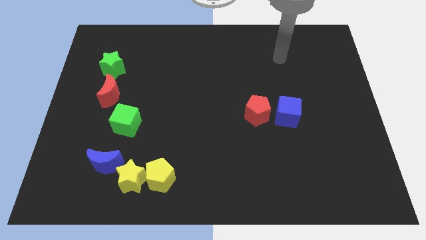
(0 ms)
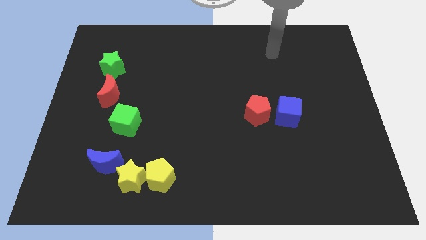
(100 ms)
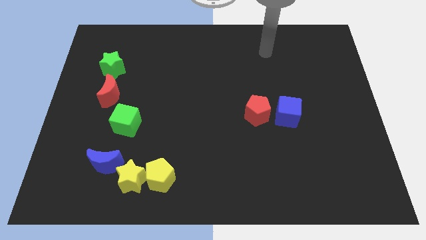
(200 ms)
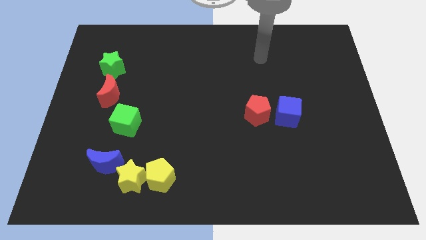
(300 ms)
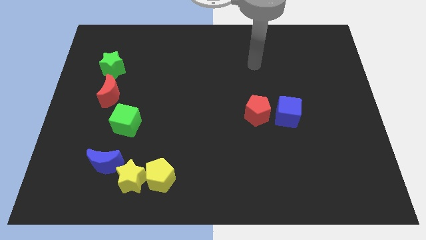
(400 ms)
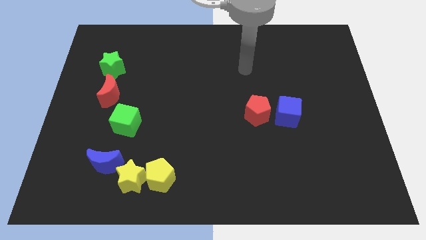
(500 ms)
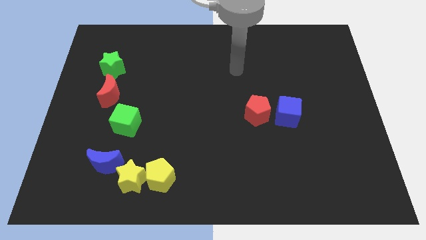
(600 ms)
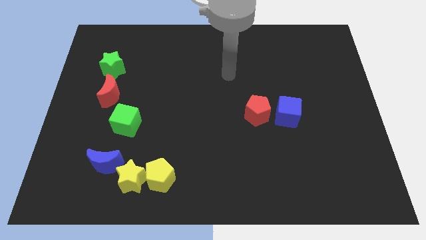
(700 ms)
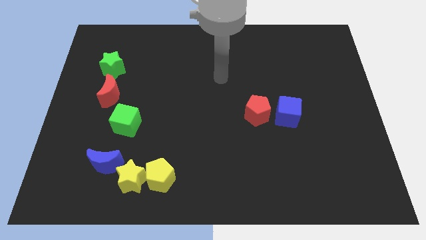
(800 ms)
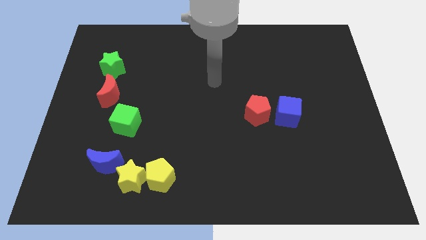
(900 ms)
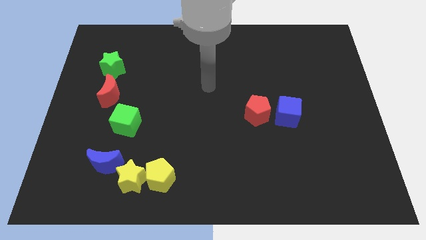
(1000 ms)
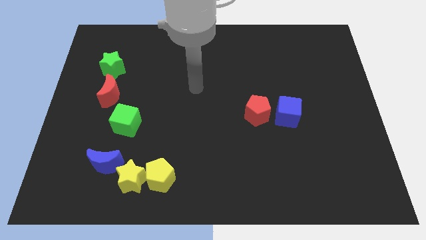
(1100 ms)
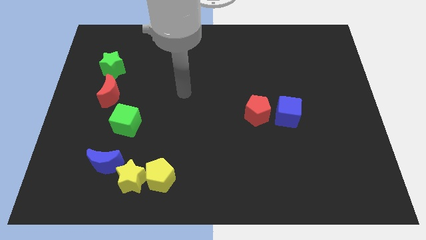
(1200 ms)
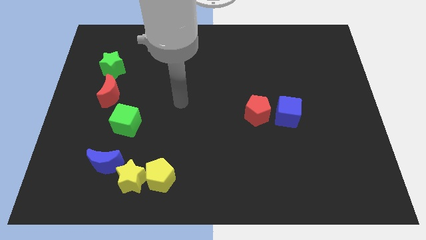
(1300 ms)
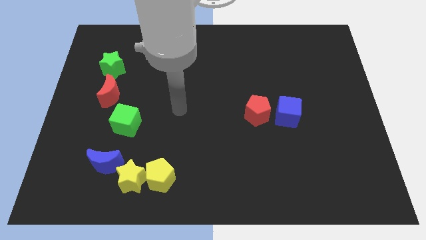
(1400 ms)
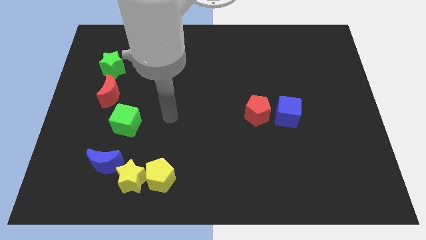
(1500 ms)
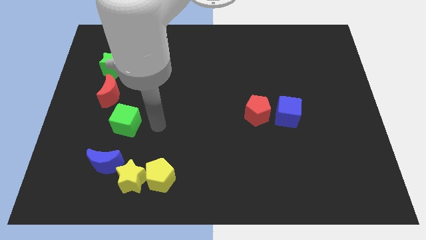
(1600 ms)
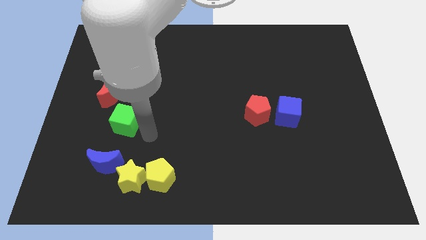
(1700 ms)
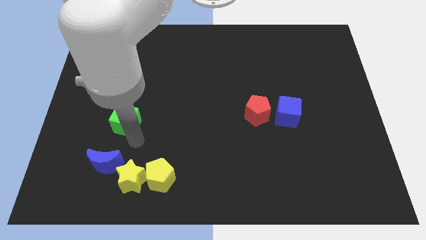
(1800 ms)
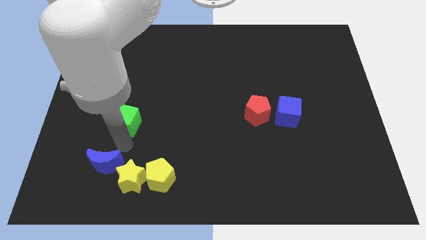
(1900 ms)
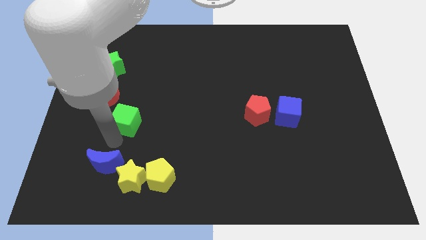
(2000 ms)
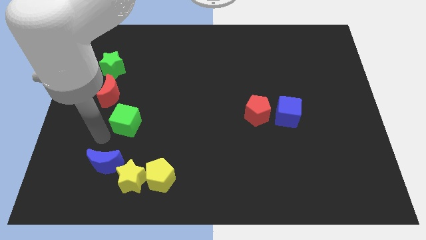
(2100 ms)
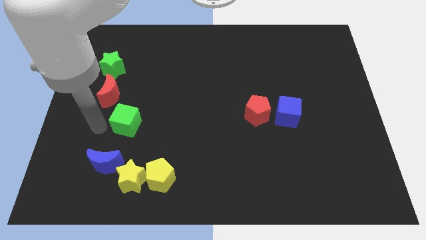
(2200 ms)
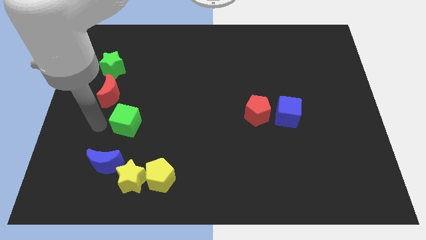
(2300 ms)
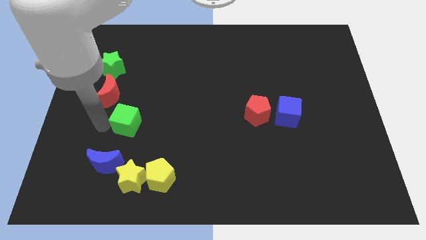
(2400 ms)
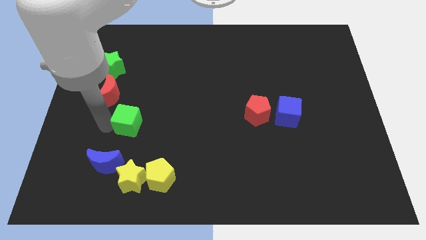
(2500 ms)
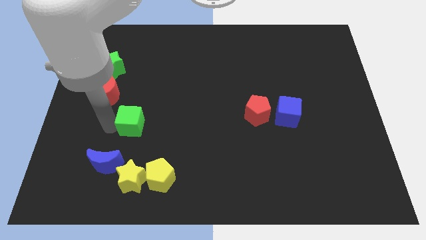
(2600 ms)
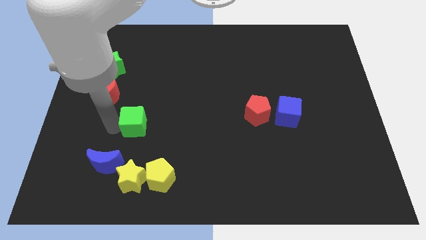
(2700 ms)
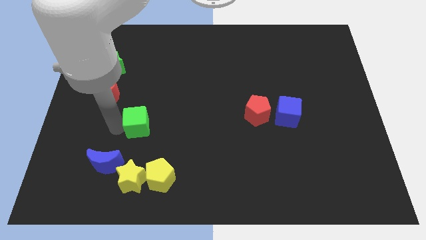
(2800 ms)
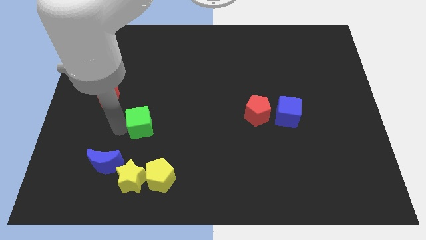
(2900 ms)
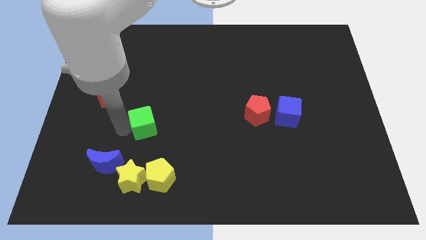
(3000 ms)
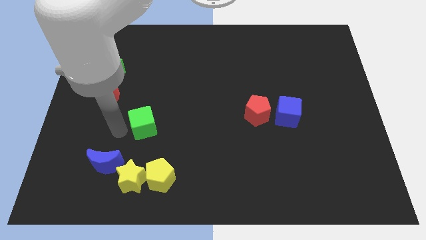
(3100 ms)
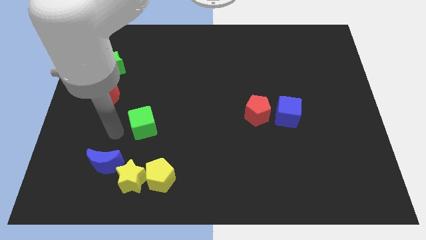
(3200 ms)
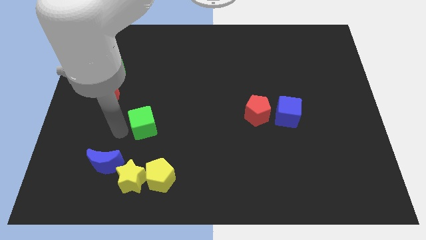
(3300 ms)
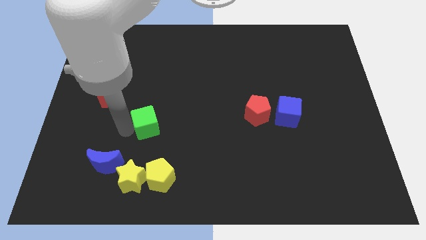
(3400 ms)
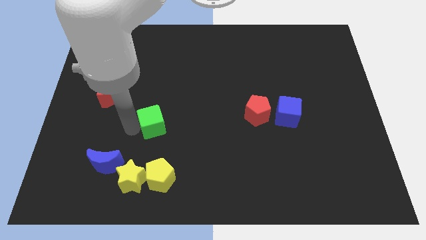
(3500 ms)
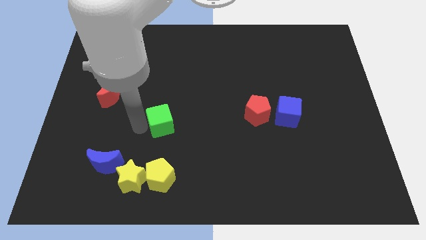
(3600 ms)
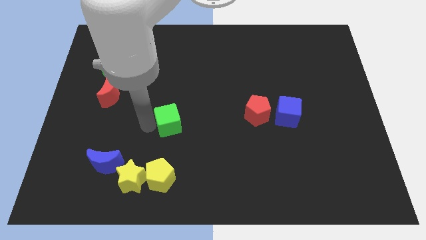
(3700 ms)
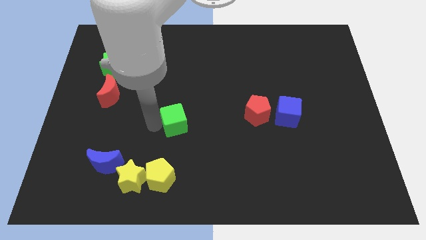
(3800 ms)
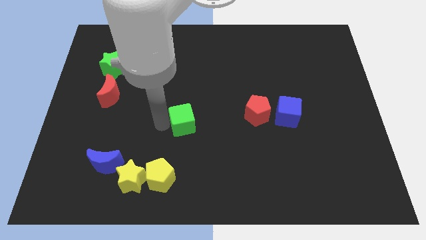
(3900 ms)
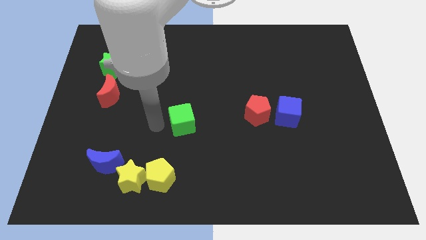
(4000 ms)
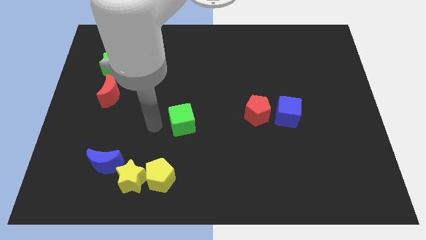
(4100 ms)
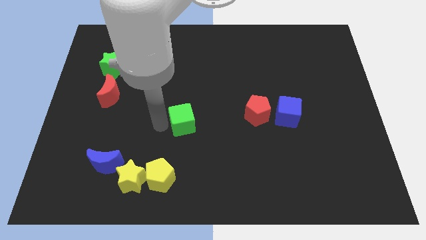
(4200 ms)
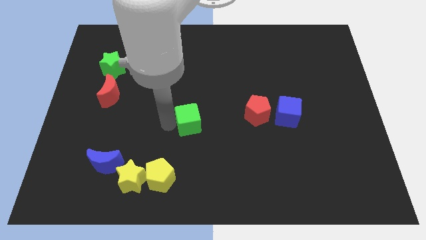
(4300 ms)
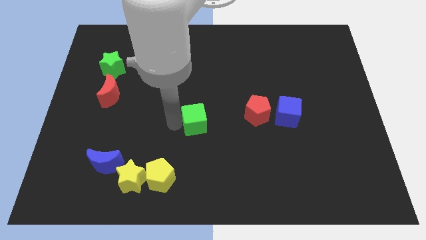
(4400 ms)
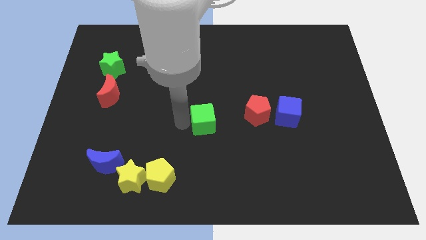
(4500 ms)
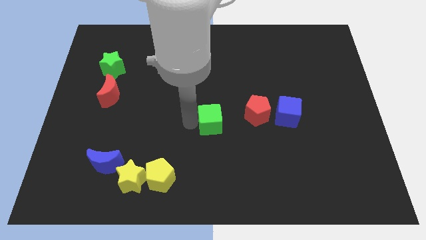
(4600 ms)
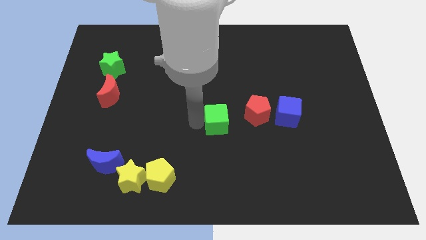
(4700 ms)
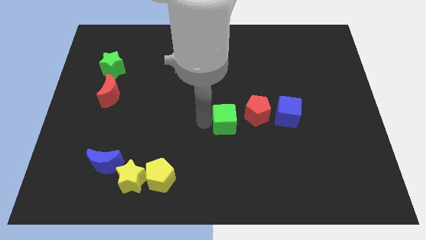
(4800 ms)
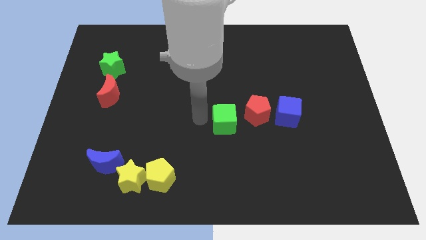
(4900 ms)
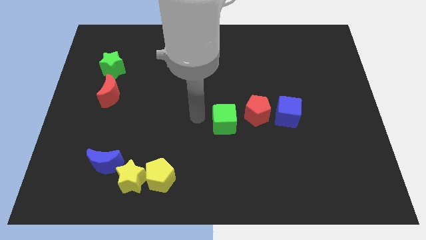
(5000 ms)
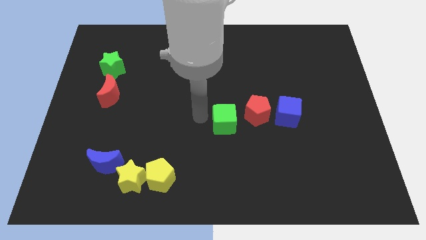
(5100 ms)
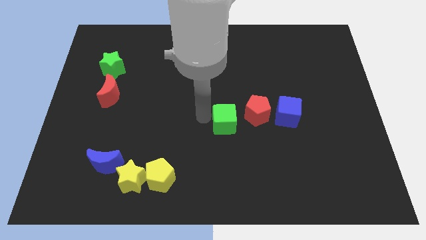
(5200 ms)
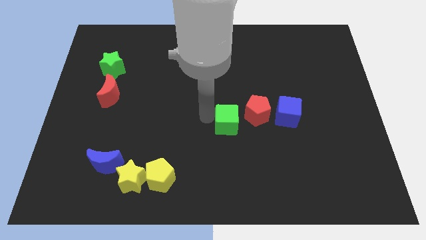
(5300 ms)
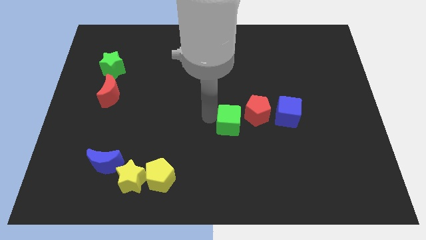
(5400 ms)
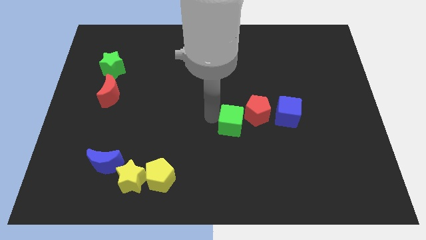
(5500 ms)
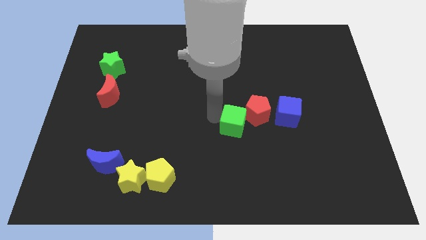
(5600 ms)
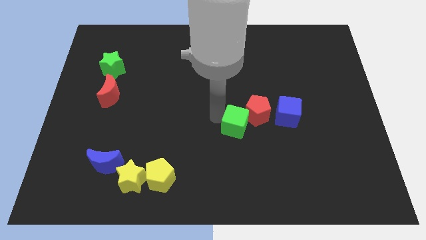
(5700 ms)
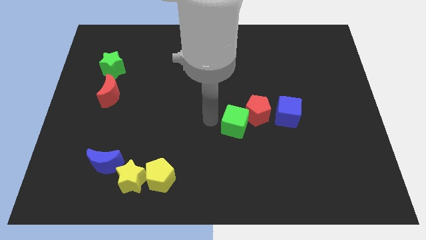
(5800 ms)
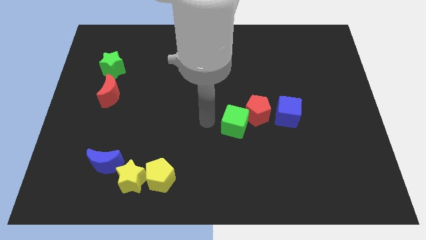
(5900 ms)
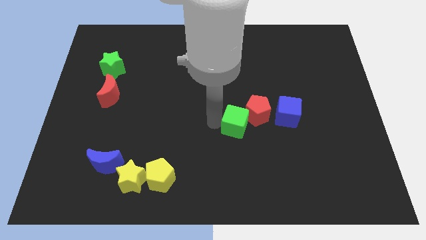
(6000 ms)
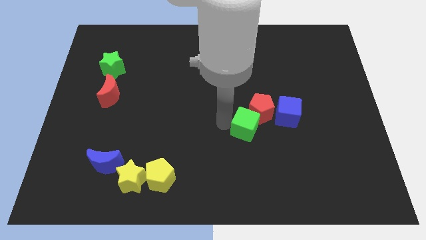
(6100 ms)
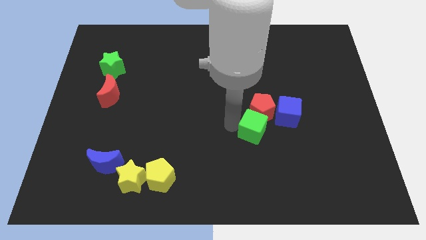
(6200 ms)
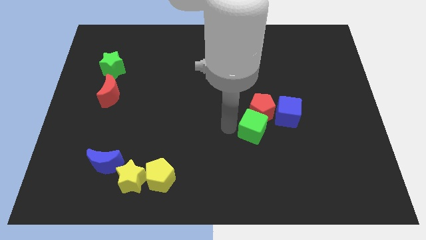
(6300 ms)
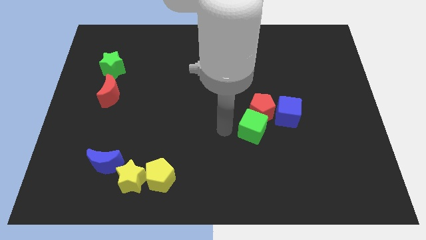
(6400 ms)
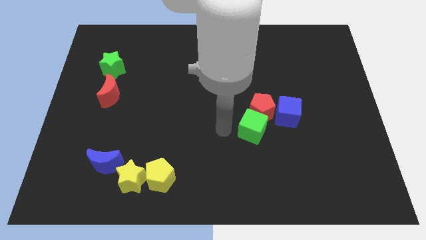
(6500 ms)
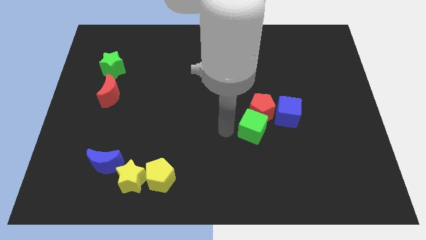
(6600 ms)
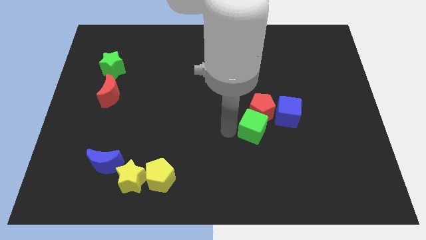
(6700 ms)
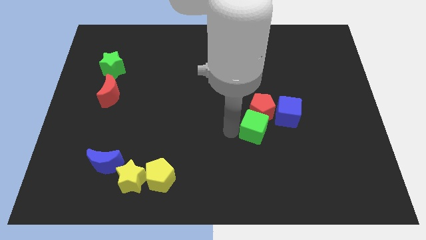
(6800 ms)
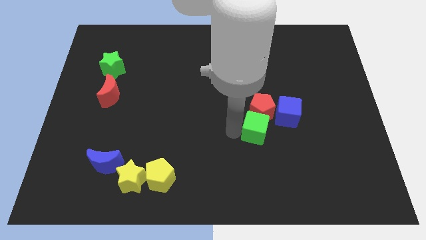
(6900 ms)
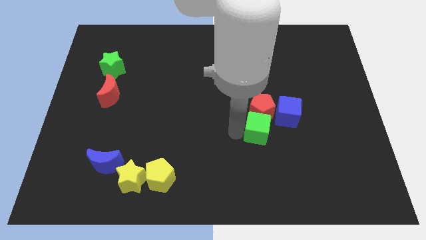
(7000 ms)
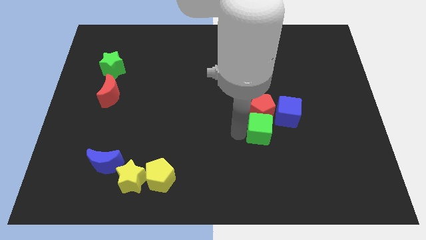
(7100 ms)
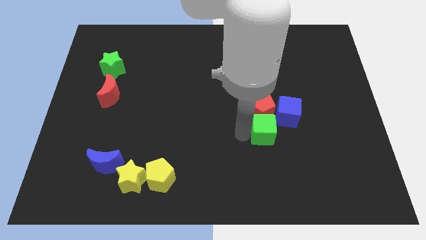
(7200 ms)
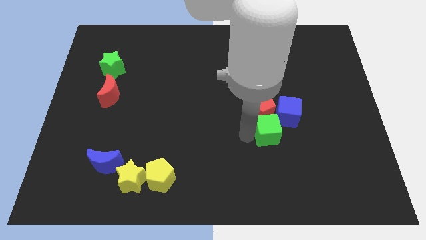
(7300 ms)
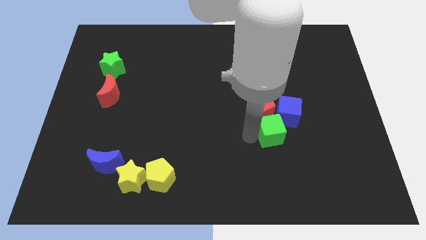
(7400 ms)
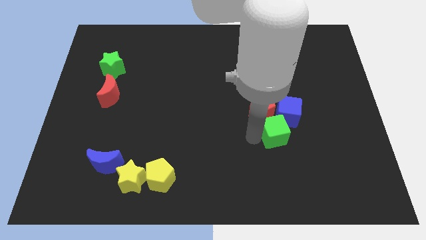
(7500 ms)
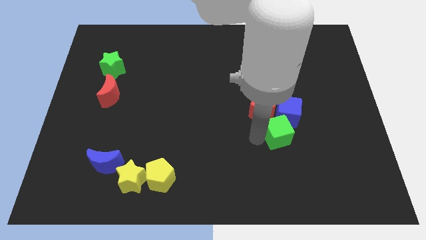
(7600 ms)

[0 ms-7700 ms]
push the green cube close to the blue cube
